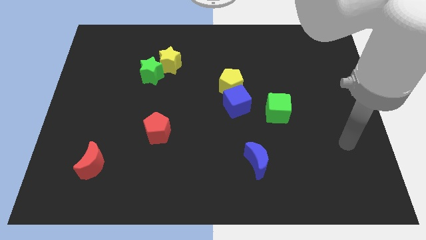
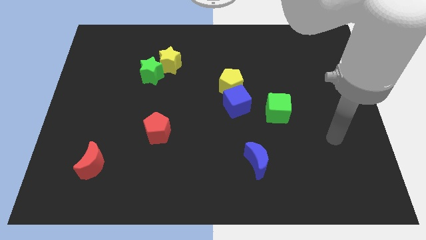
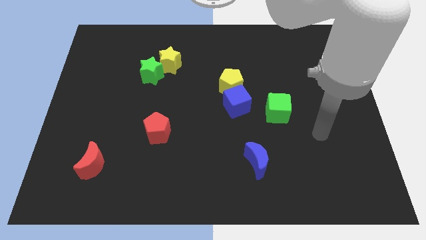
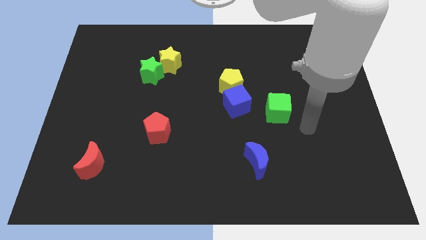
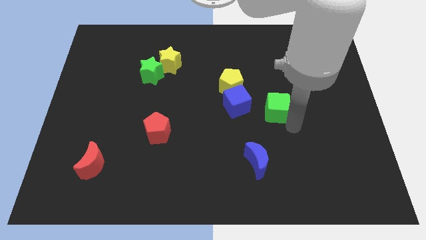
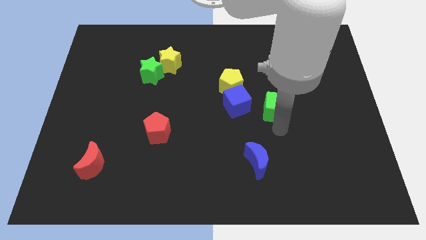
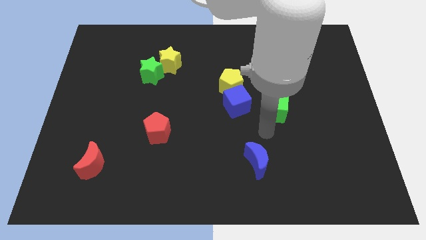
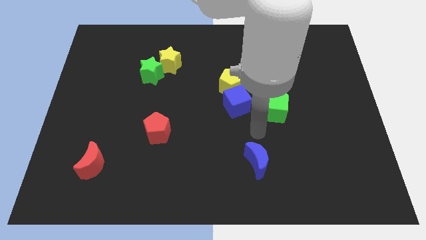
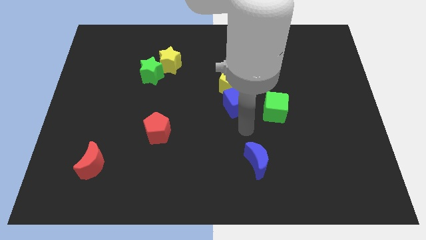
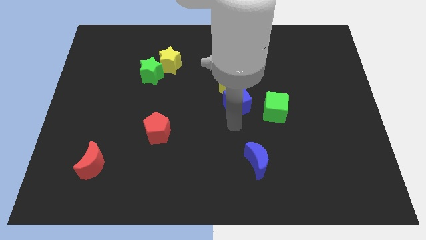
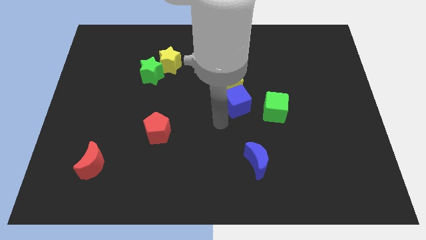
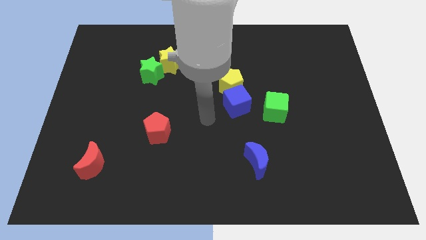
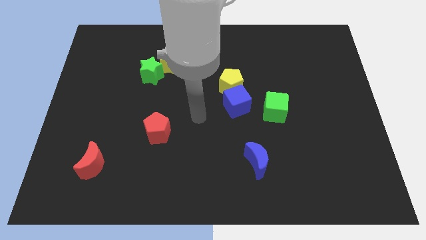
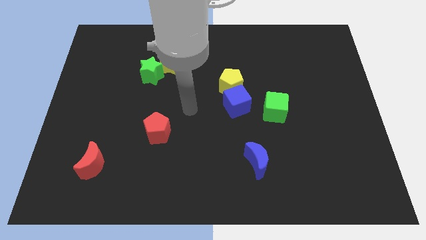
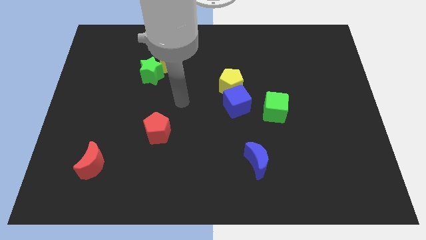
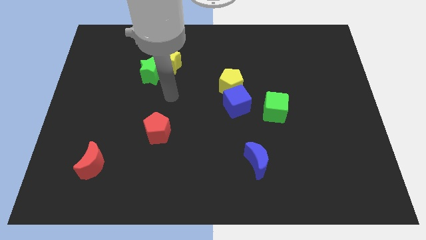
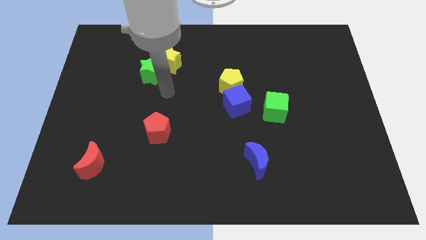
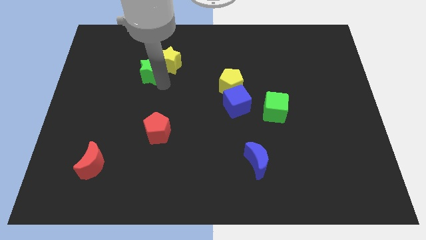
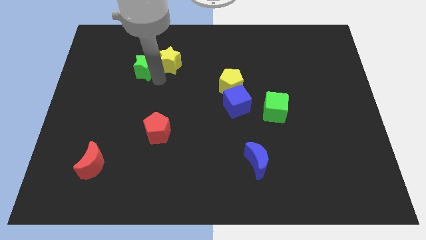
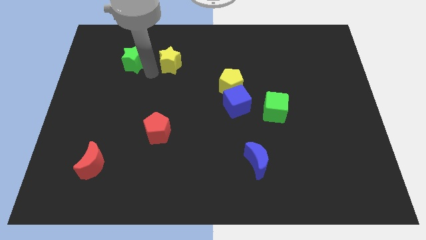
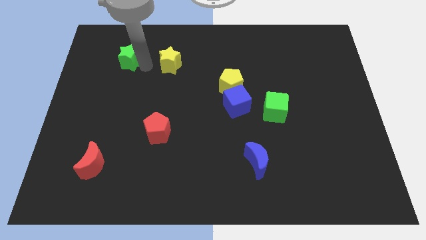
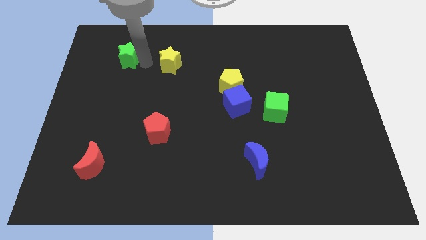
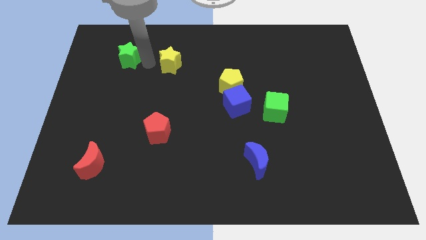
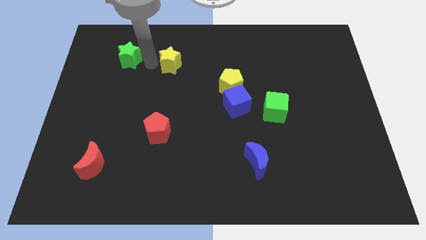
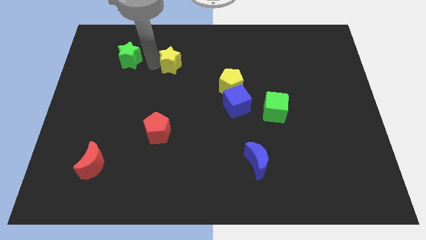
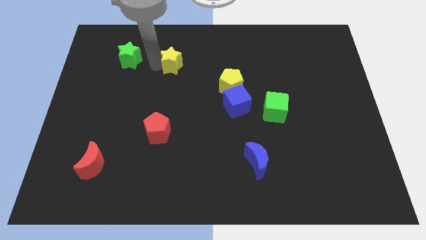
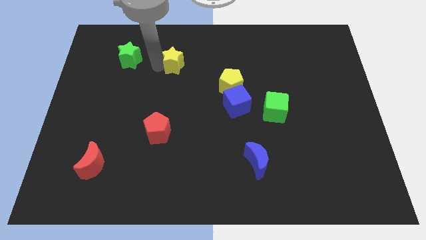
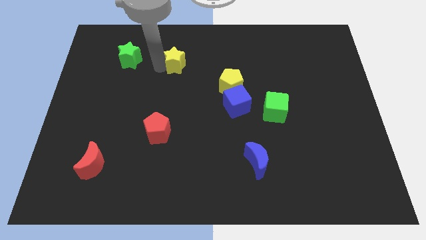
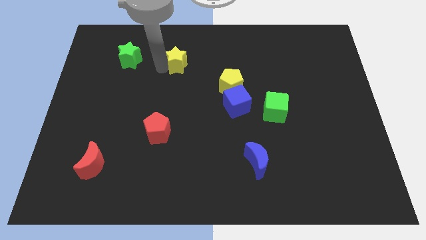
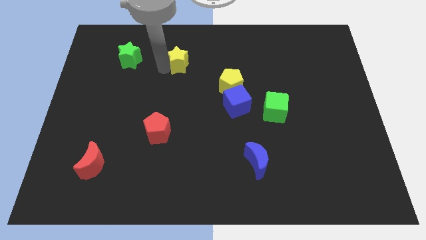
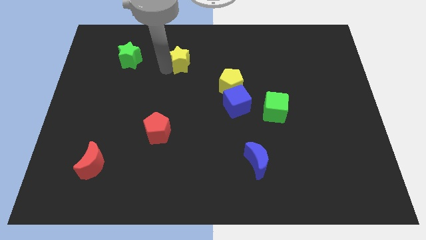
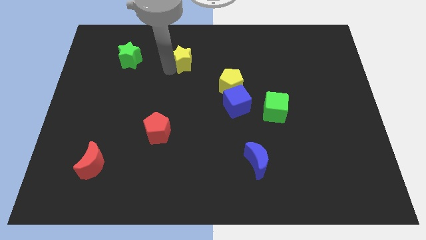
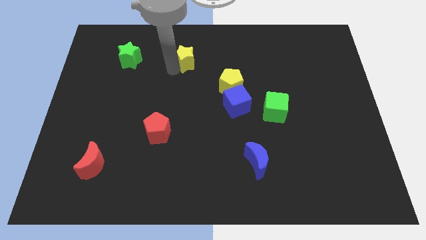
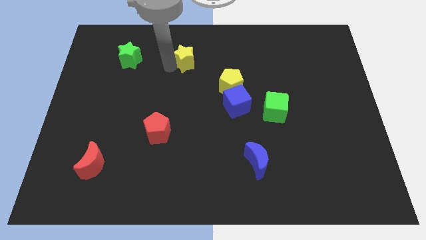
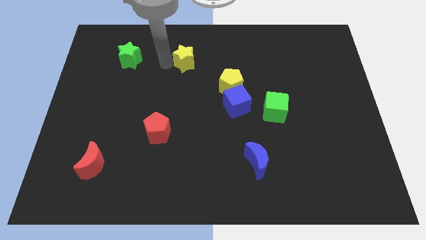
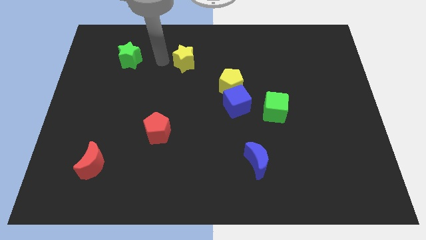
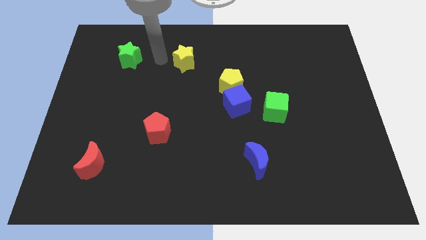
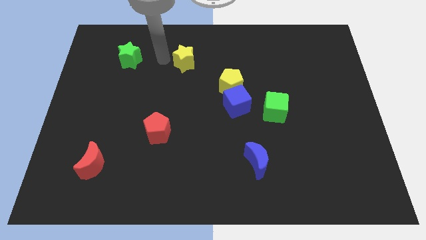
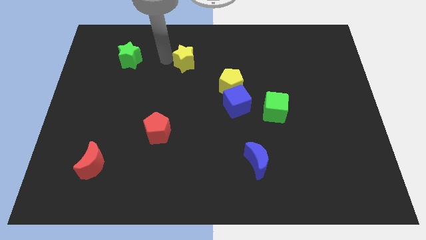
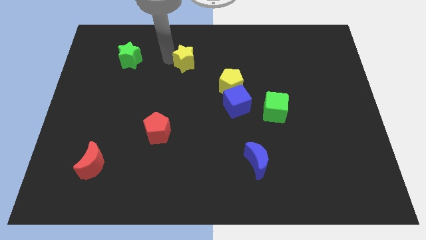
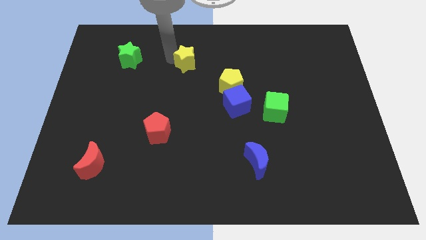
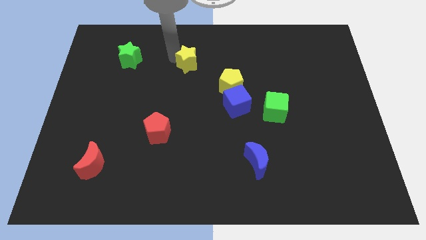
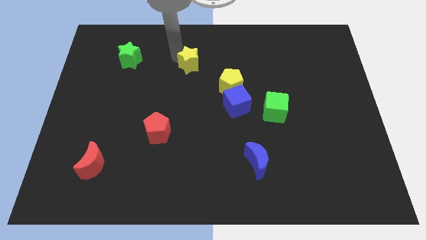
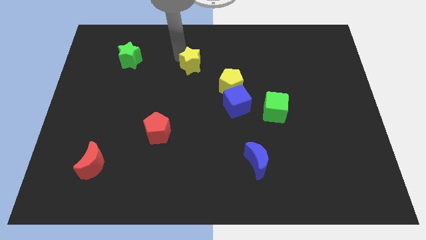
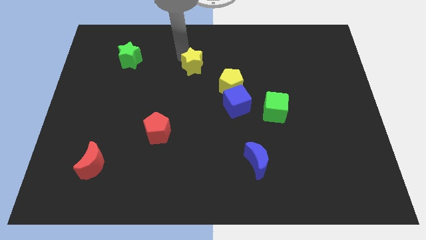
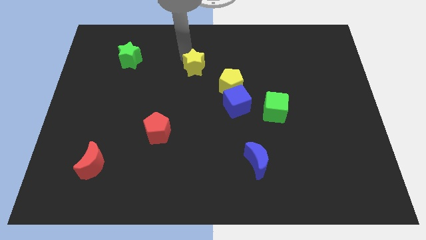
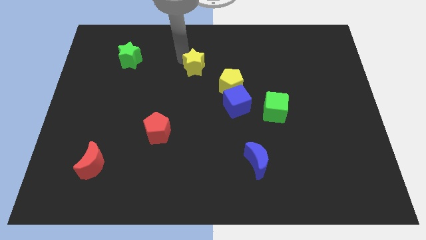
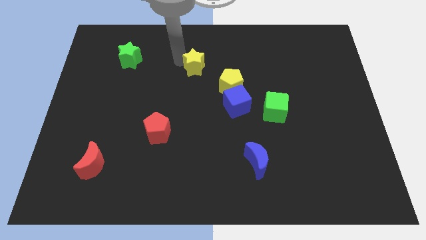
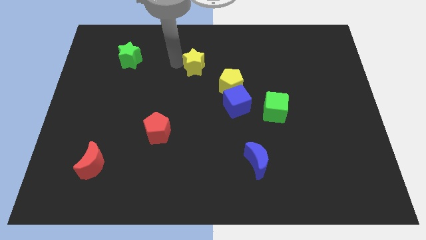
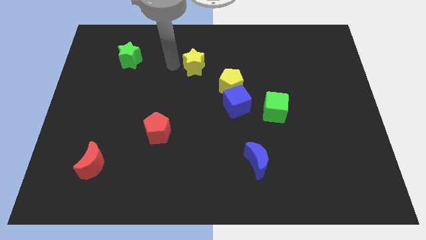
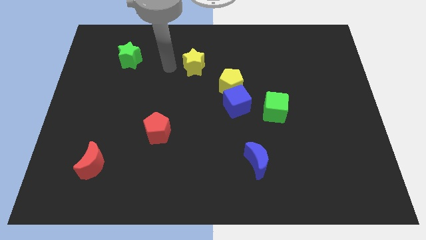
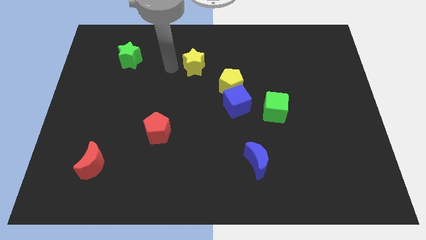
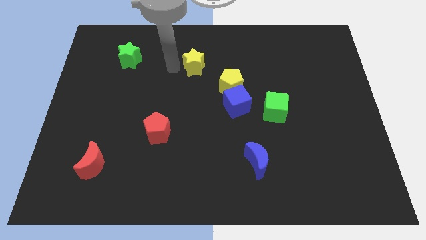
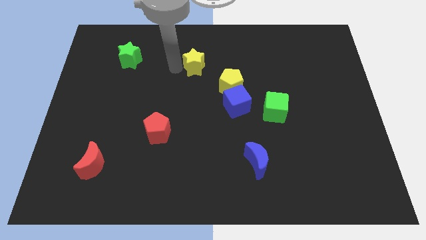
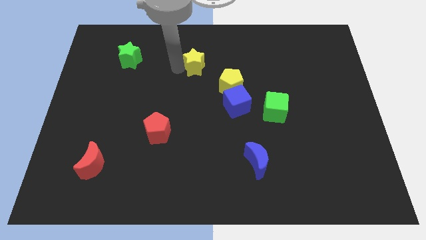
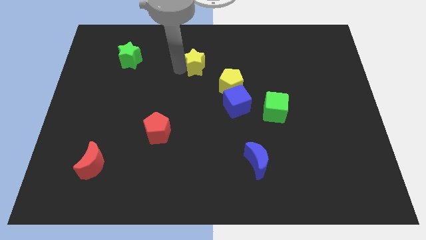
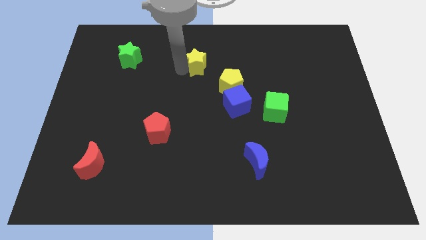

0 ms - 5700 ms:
slightly slide the yellow star to the right

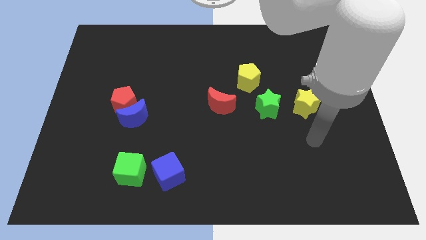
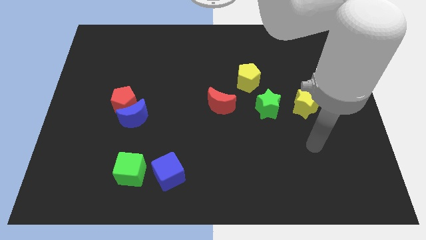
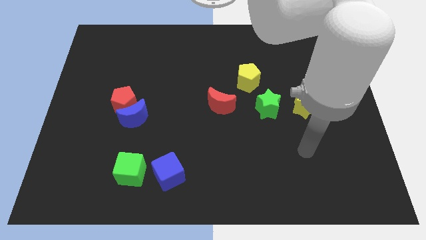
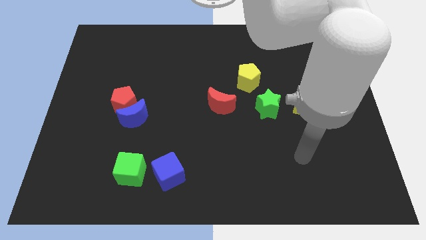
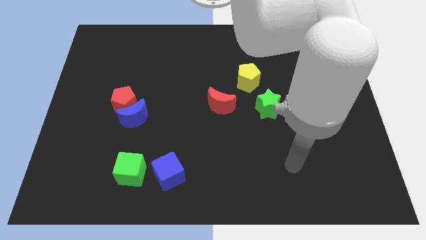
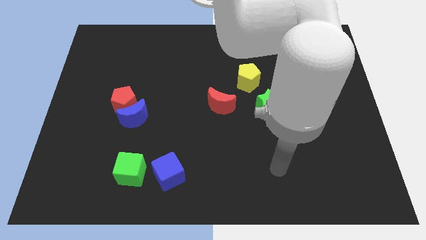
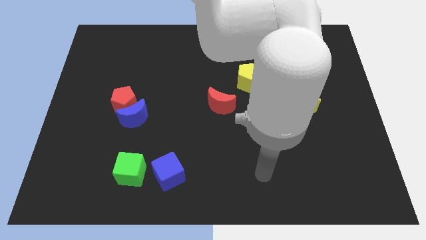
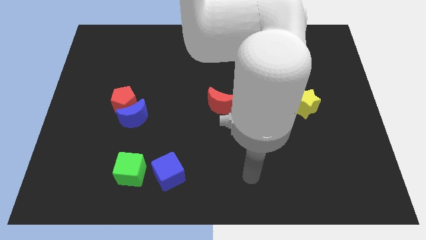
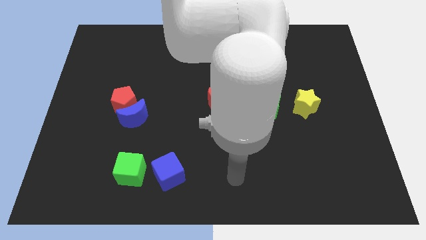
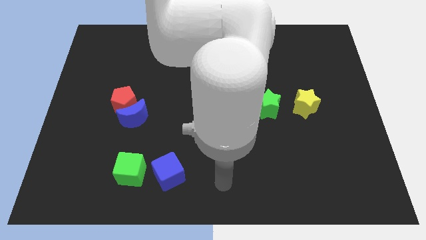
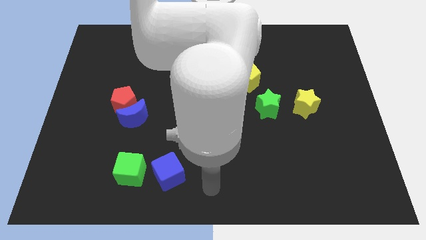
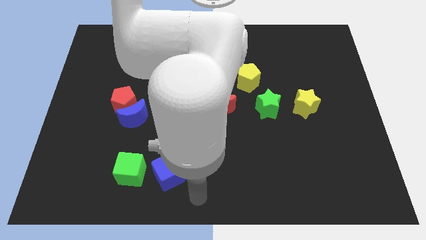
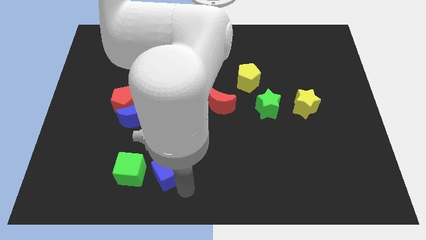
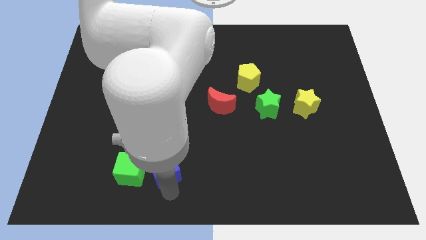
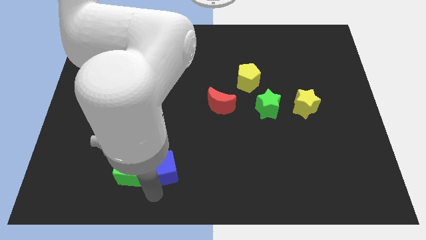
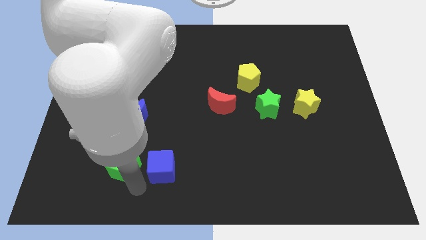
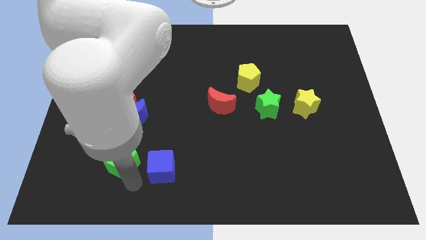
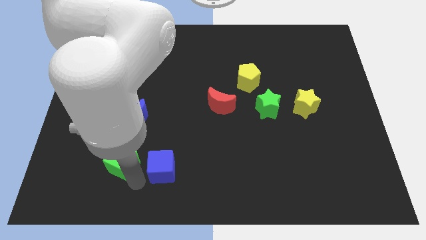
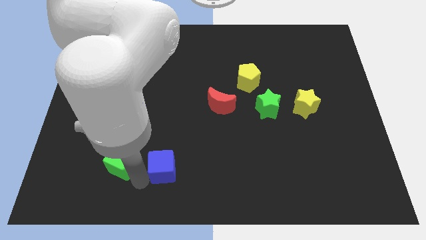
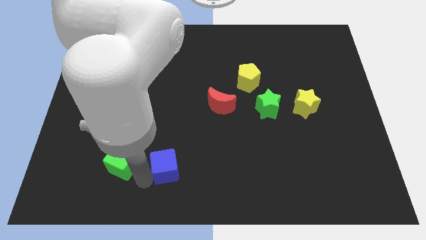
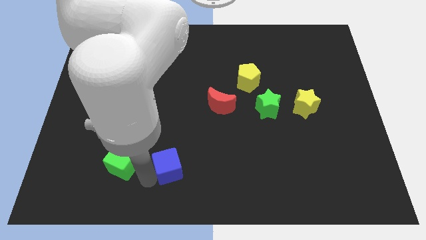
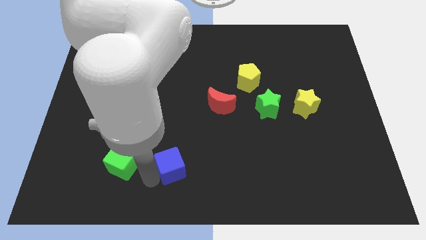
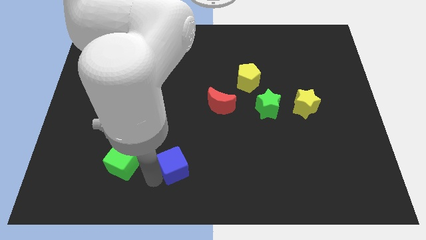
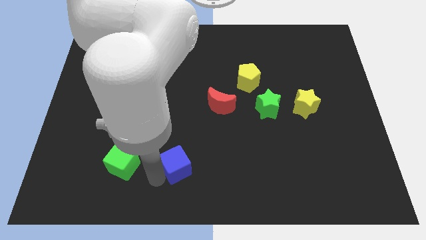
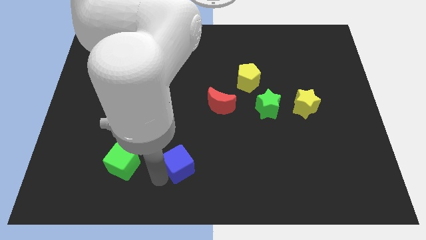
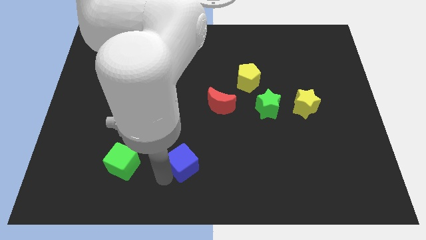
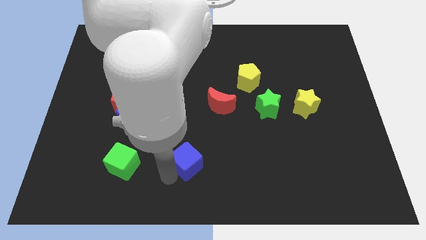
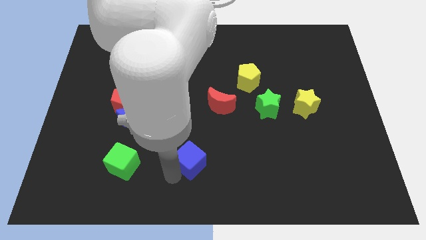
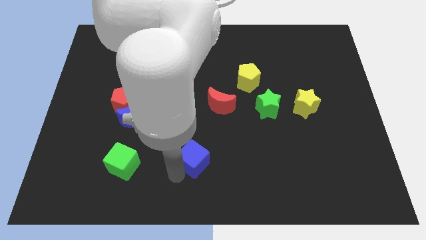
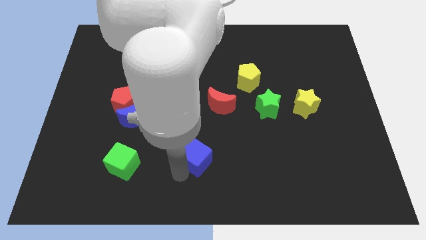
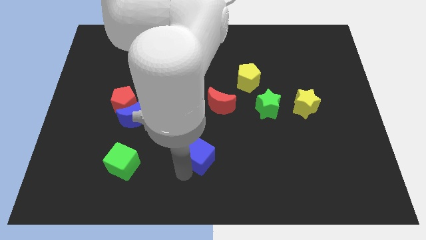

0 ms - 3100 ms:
slide the blue cube a little bit diagonally upwards and right
